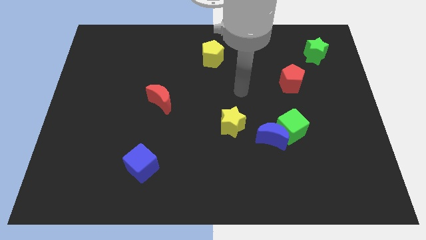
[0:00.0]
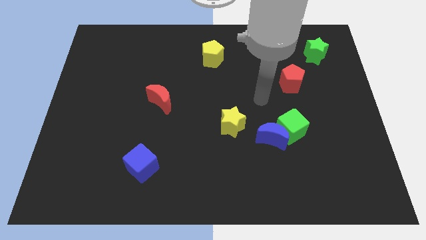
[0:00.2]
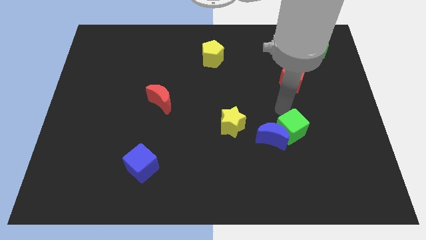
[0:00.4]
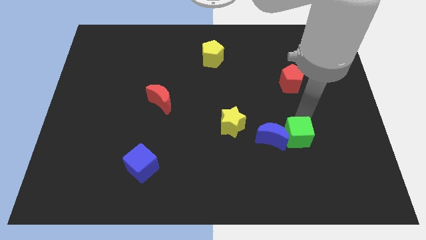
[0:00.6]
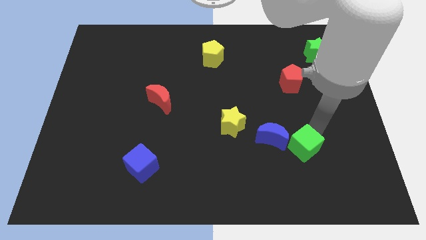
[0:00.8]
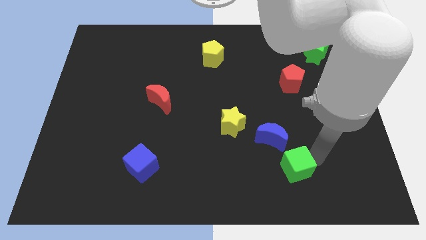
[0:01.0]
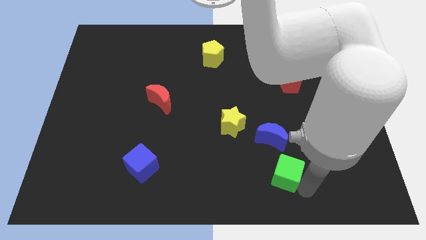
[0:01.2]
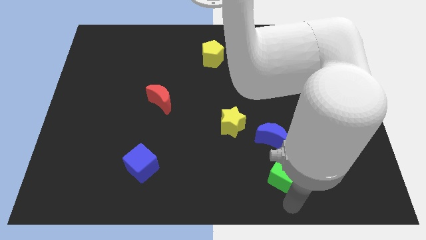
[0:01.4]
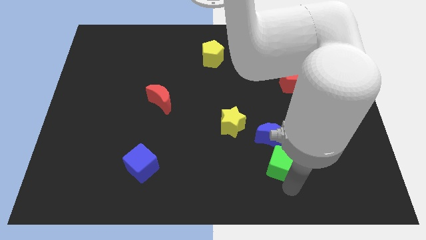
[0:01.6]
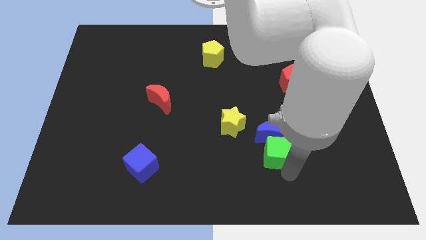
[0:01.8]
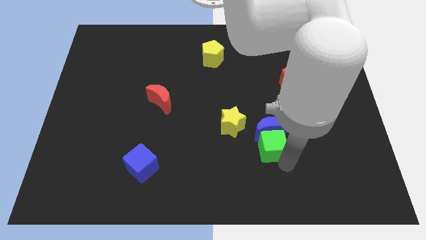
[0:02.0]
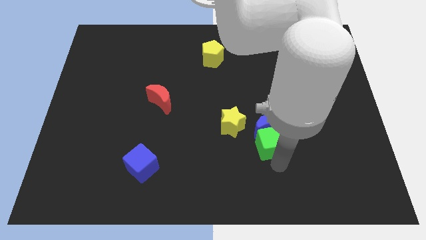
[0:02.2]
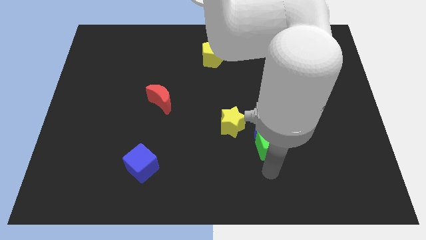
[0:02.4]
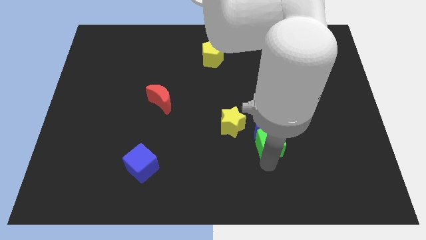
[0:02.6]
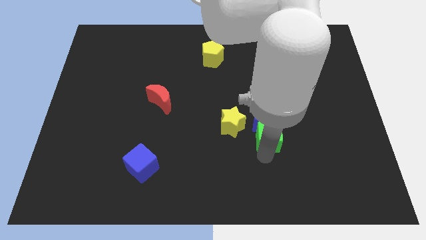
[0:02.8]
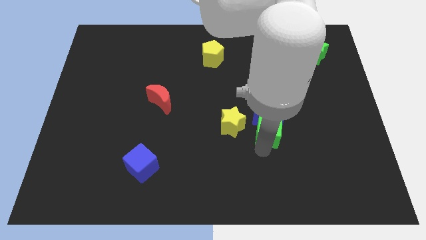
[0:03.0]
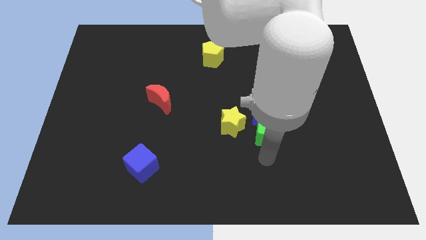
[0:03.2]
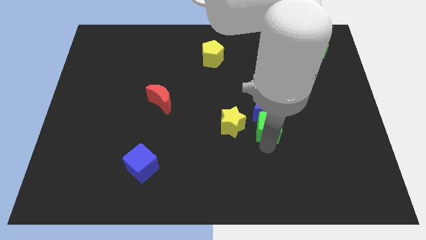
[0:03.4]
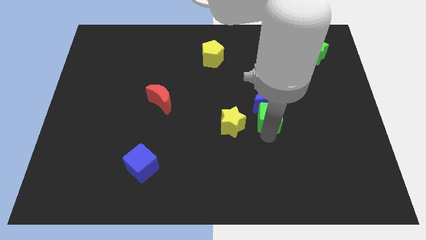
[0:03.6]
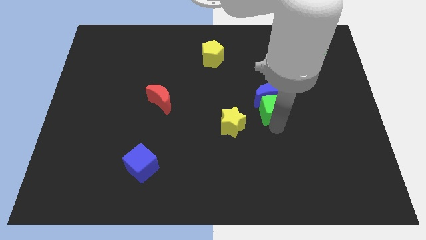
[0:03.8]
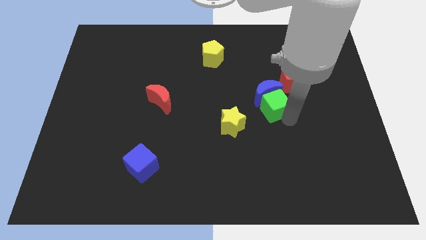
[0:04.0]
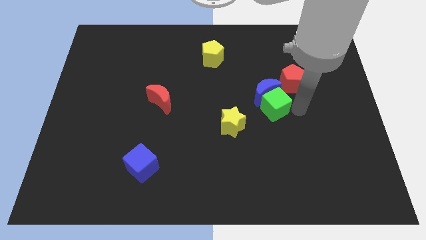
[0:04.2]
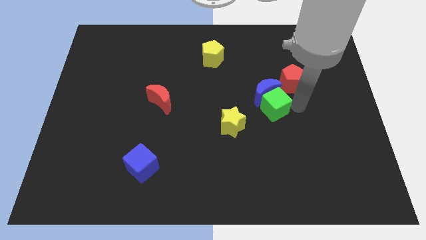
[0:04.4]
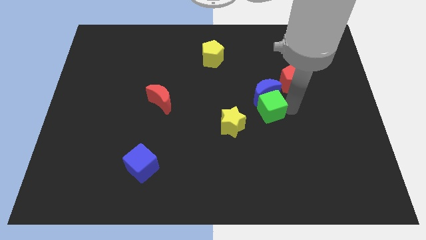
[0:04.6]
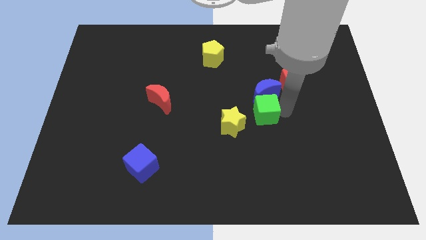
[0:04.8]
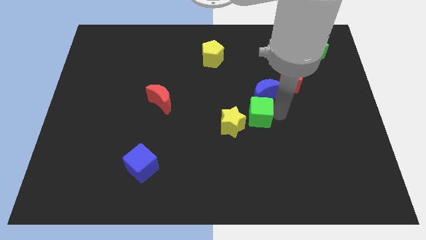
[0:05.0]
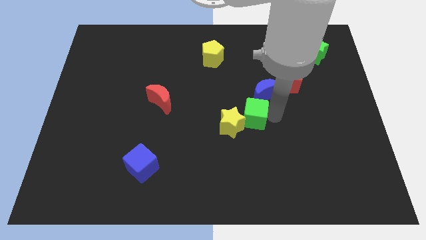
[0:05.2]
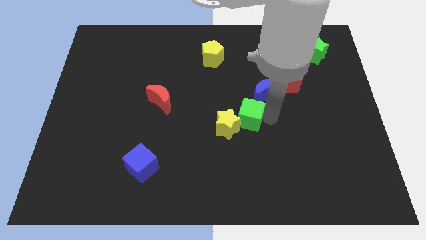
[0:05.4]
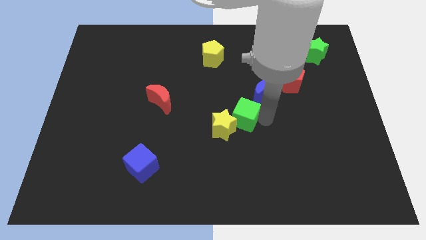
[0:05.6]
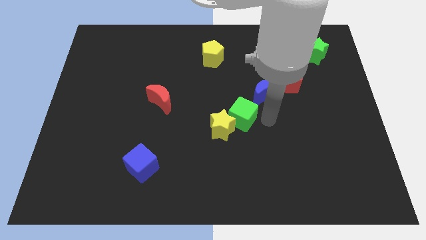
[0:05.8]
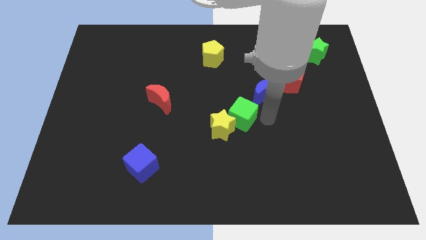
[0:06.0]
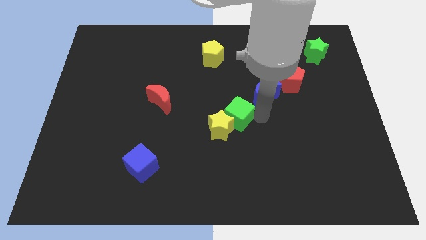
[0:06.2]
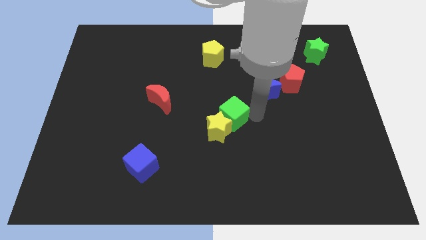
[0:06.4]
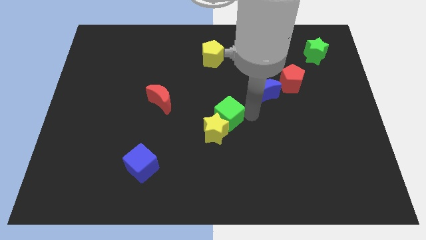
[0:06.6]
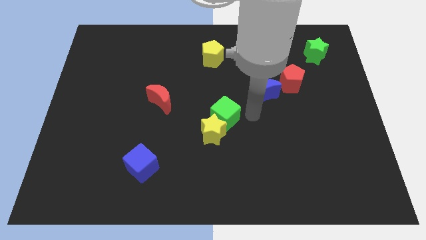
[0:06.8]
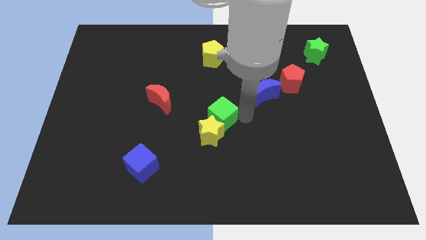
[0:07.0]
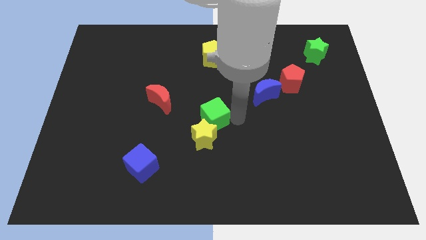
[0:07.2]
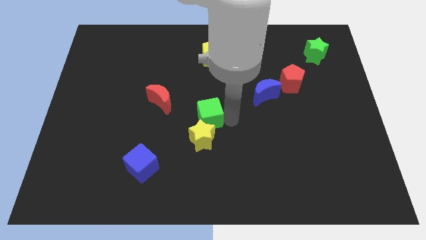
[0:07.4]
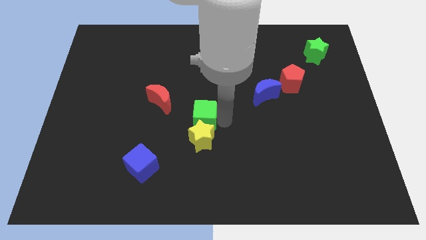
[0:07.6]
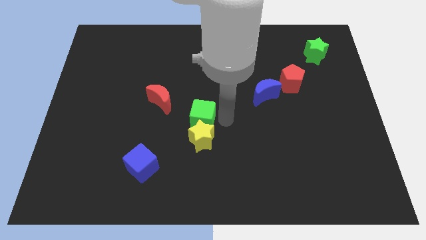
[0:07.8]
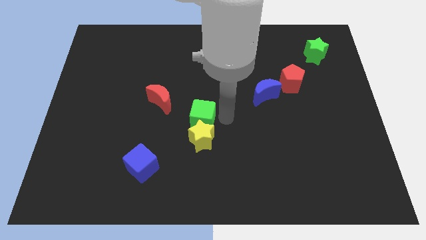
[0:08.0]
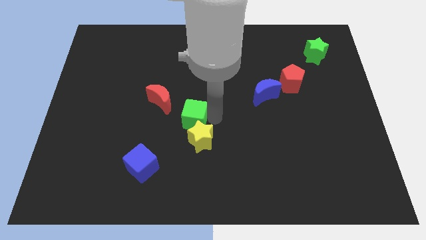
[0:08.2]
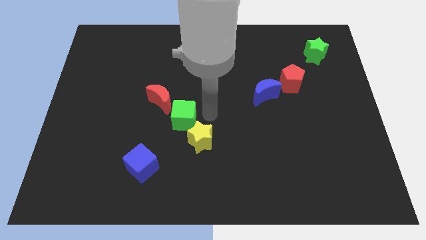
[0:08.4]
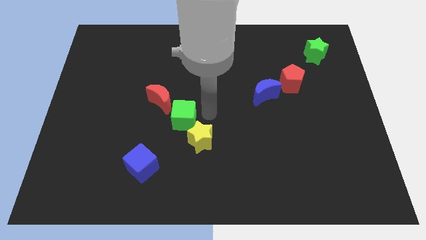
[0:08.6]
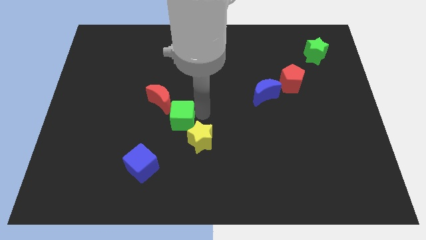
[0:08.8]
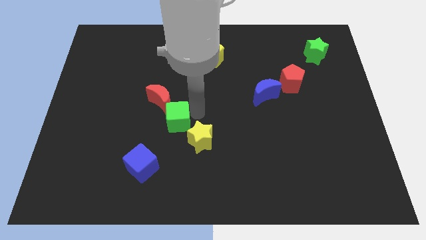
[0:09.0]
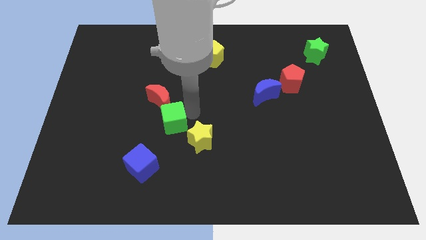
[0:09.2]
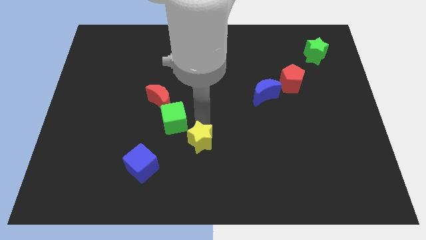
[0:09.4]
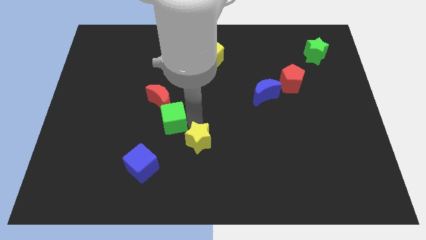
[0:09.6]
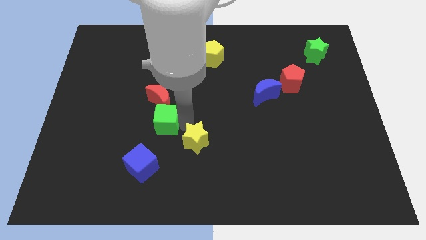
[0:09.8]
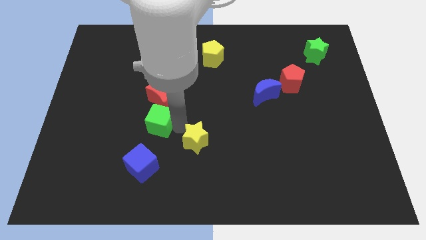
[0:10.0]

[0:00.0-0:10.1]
move the green cube diagonally down and to the left of the red moon

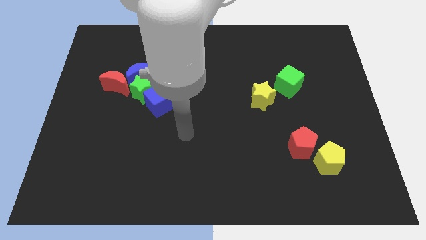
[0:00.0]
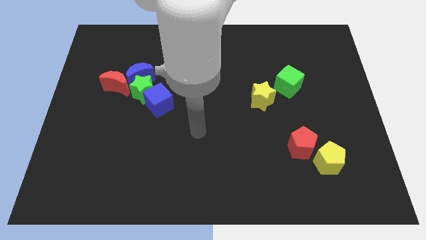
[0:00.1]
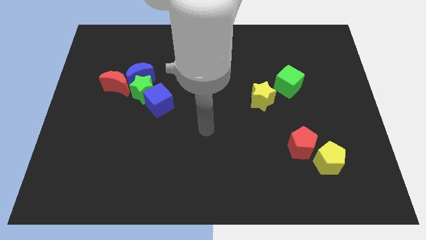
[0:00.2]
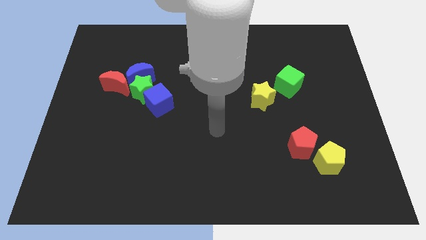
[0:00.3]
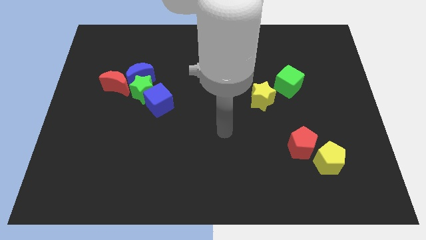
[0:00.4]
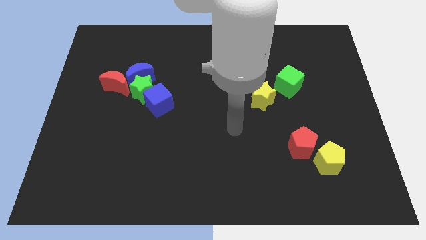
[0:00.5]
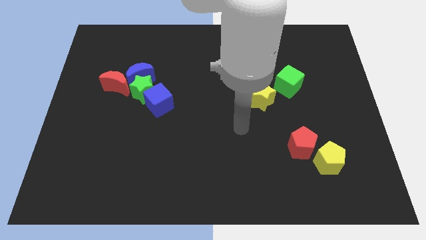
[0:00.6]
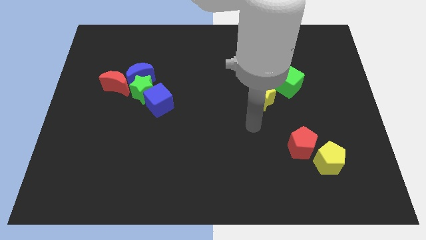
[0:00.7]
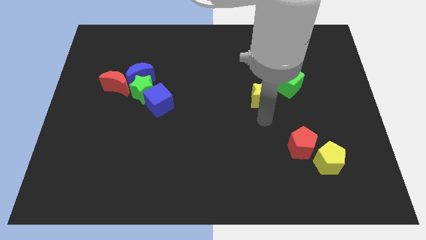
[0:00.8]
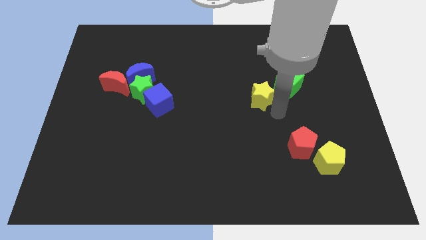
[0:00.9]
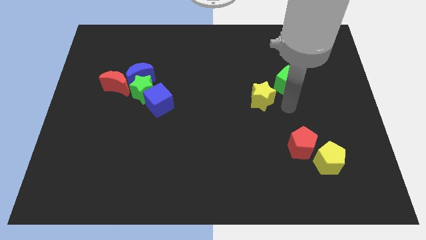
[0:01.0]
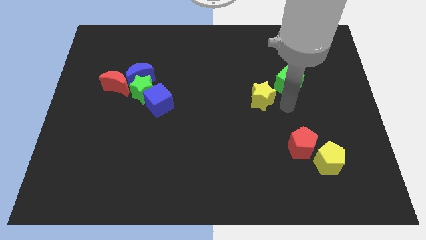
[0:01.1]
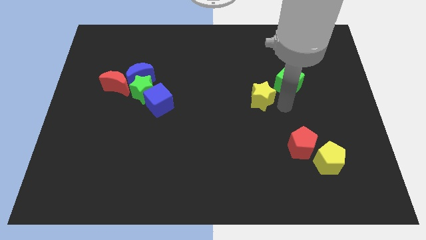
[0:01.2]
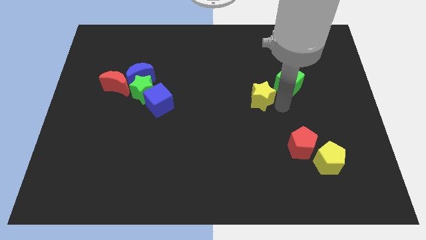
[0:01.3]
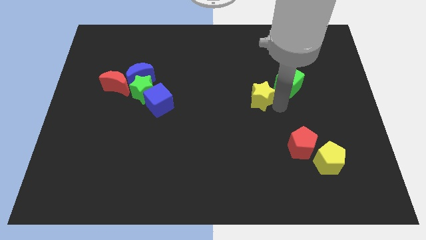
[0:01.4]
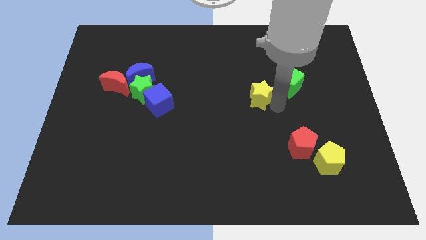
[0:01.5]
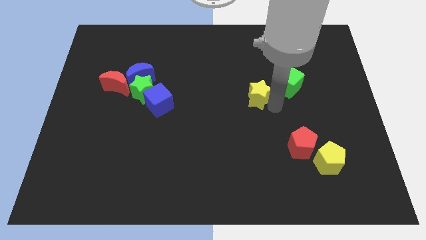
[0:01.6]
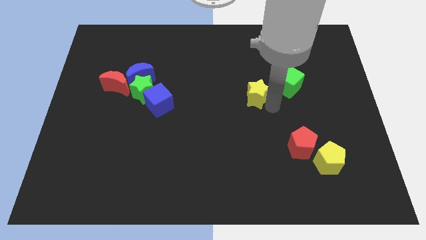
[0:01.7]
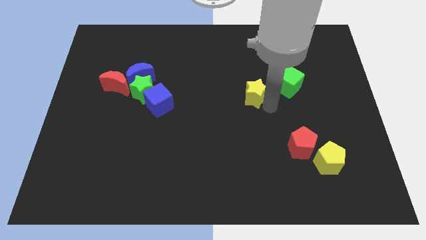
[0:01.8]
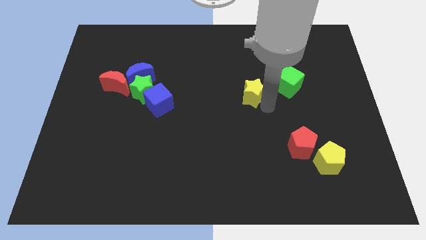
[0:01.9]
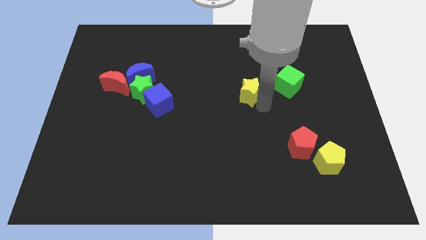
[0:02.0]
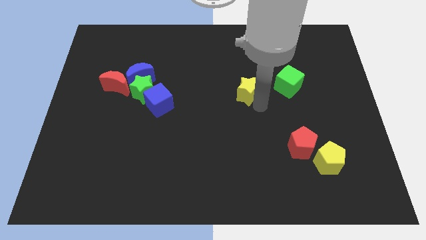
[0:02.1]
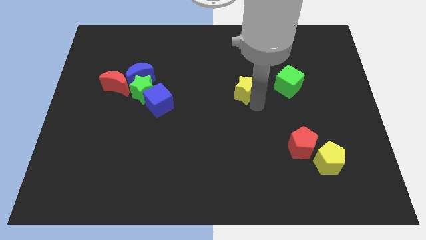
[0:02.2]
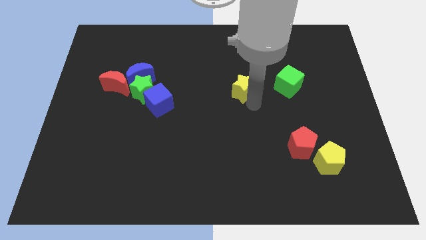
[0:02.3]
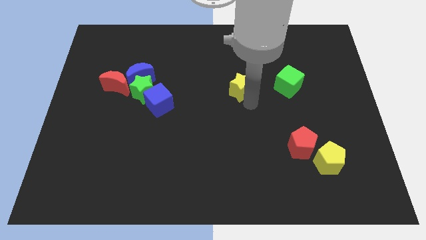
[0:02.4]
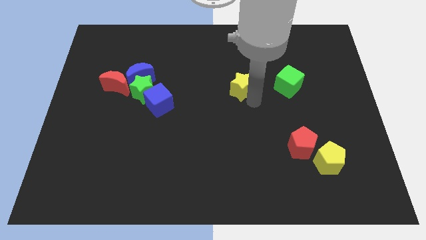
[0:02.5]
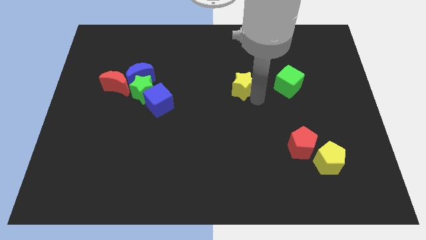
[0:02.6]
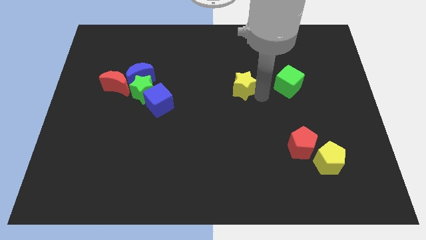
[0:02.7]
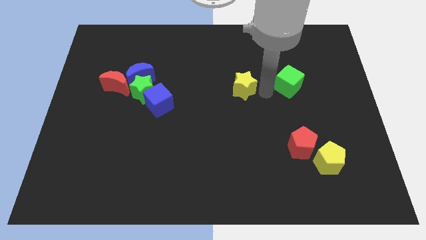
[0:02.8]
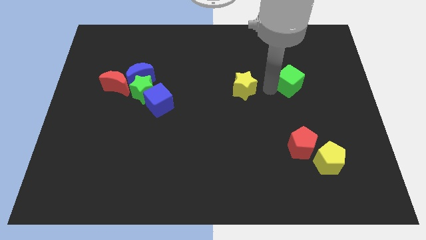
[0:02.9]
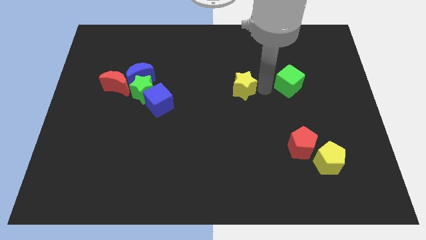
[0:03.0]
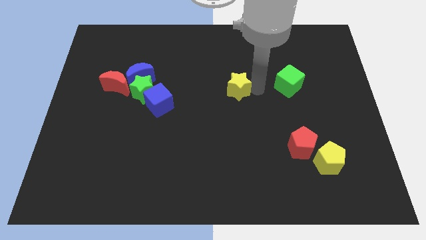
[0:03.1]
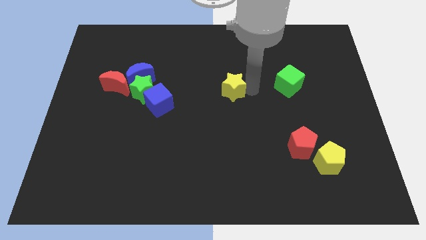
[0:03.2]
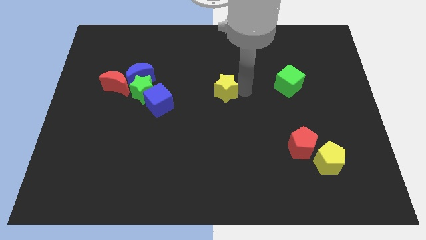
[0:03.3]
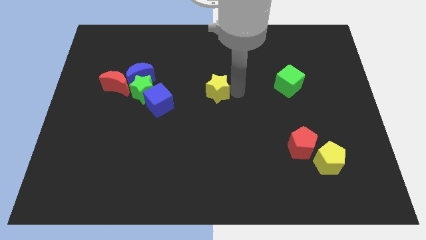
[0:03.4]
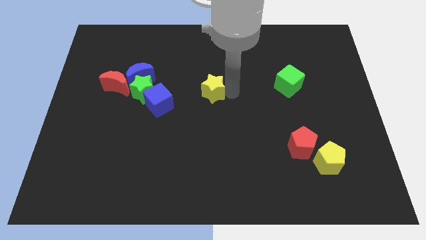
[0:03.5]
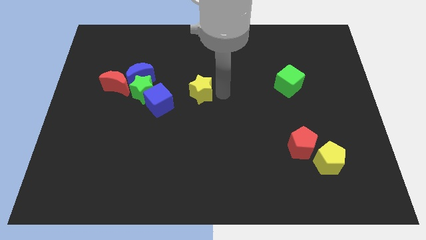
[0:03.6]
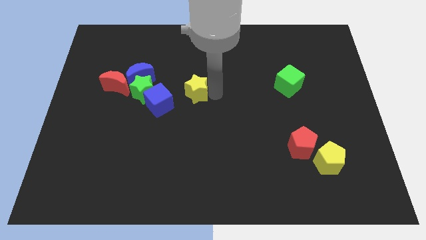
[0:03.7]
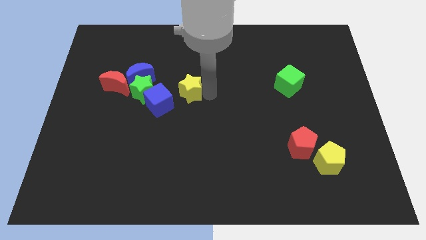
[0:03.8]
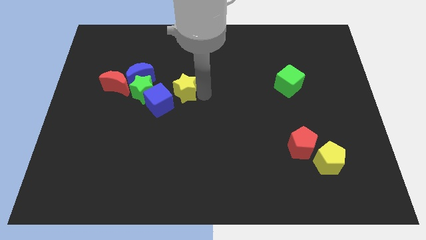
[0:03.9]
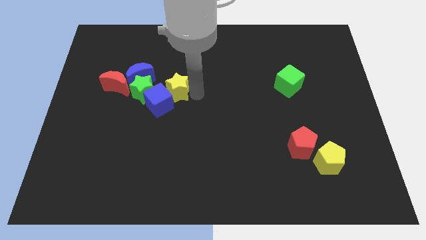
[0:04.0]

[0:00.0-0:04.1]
move the yellow star just right of the red moon
